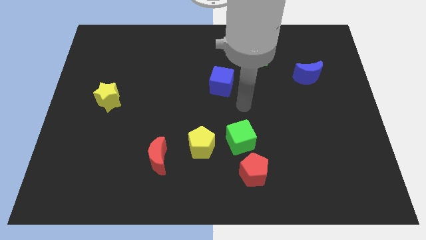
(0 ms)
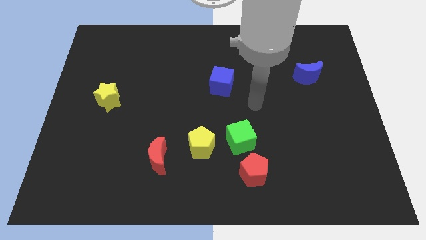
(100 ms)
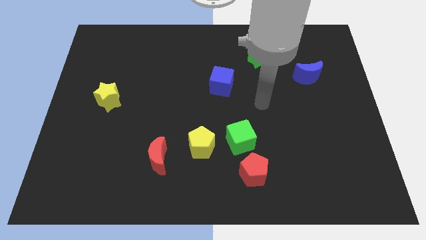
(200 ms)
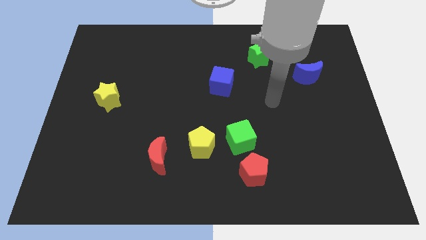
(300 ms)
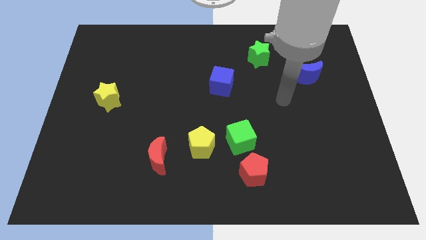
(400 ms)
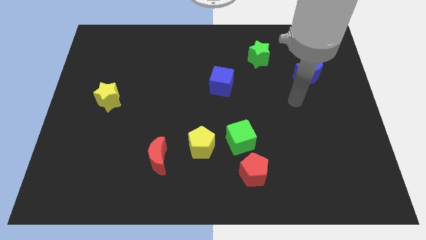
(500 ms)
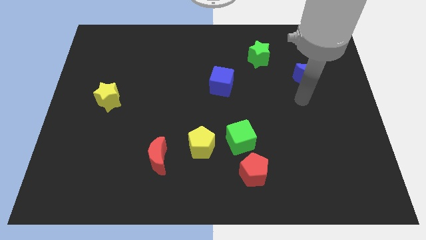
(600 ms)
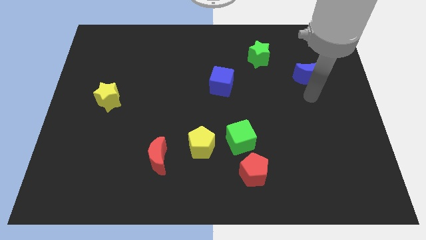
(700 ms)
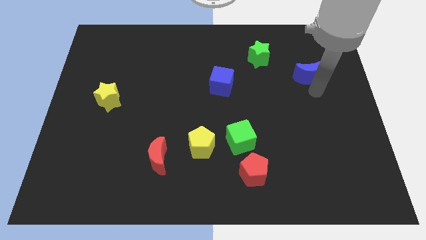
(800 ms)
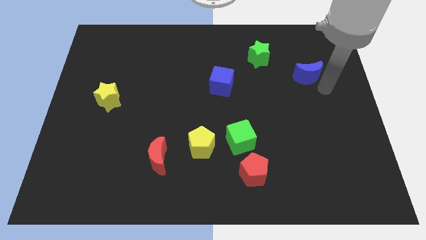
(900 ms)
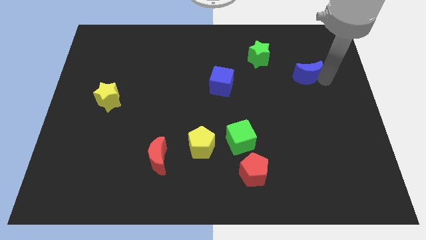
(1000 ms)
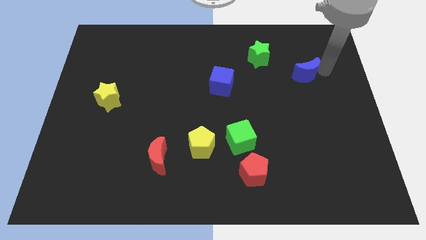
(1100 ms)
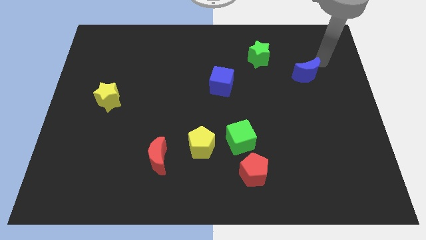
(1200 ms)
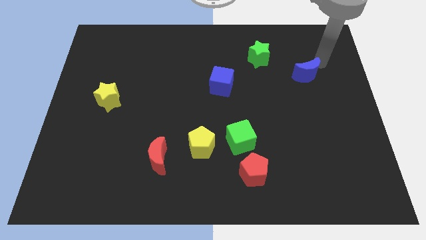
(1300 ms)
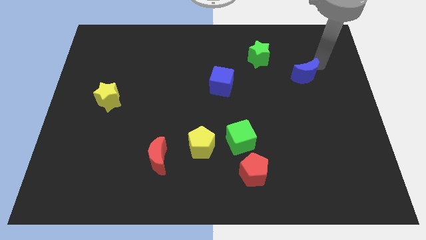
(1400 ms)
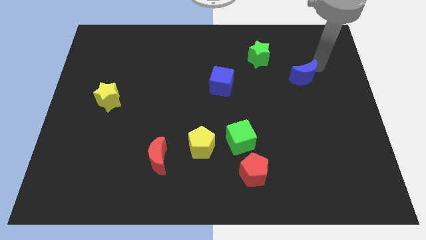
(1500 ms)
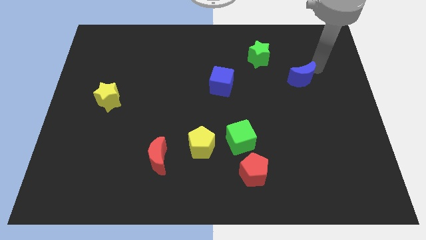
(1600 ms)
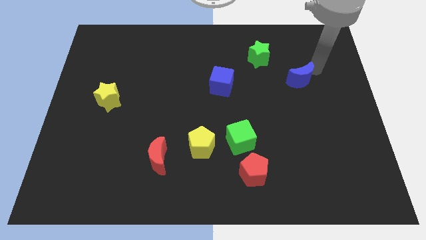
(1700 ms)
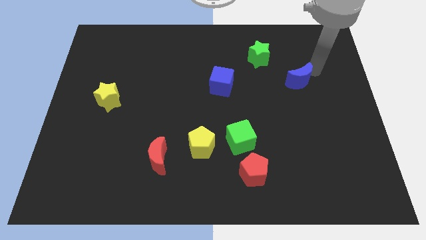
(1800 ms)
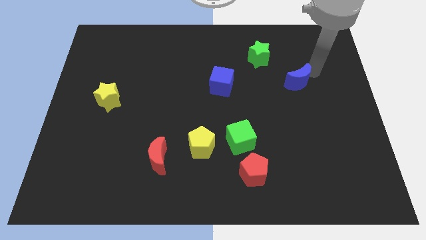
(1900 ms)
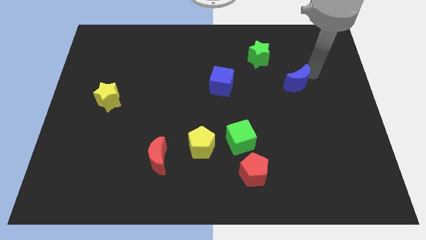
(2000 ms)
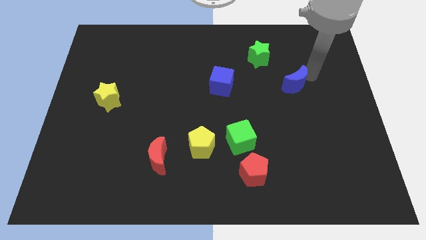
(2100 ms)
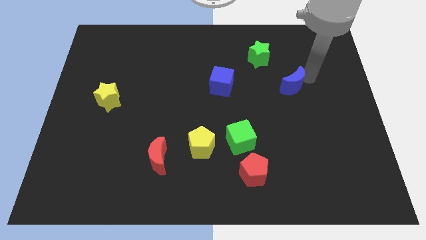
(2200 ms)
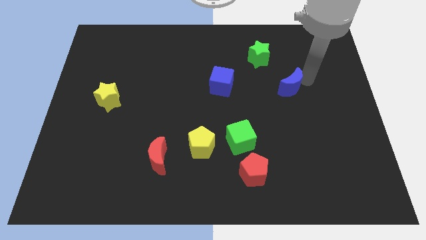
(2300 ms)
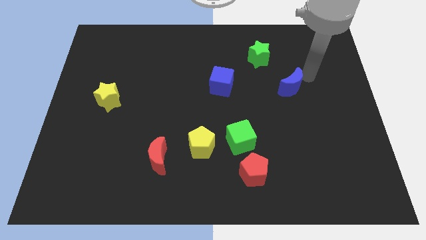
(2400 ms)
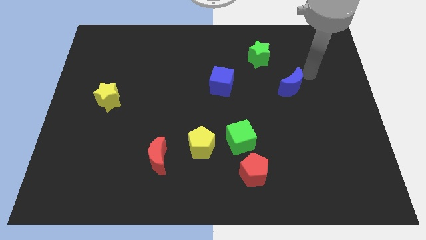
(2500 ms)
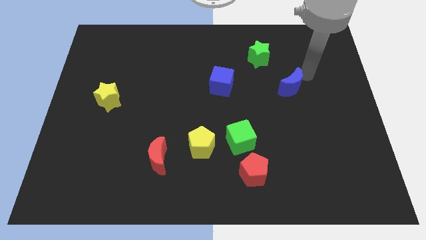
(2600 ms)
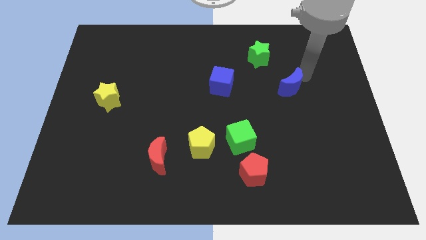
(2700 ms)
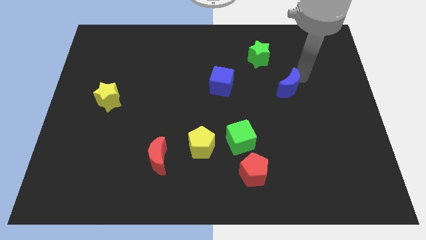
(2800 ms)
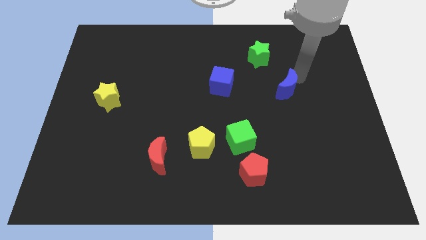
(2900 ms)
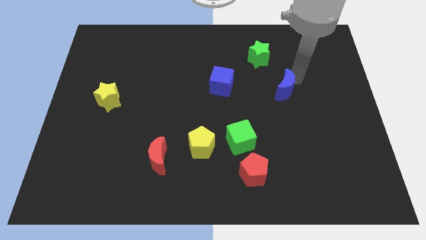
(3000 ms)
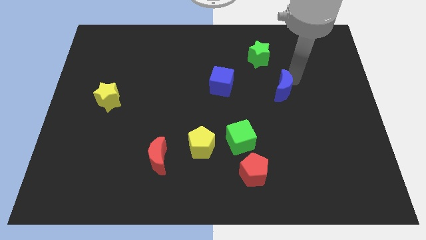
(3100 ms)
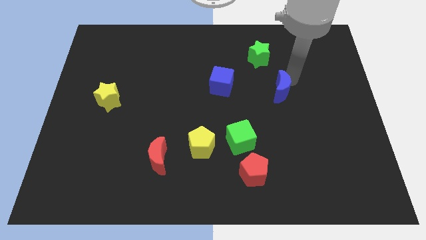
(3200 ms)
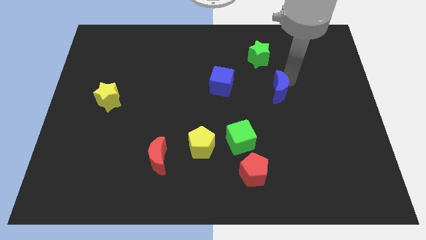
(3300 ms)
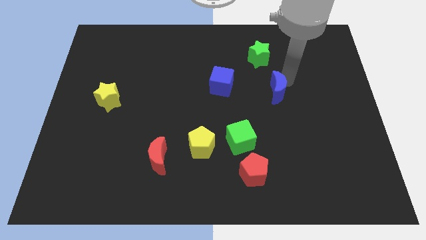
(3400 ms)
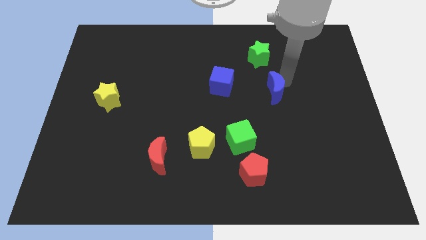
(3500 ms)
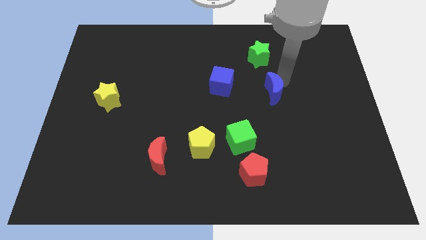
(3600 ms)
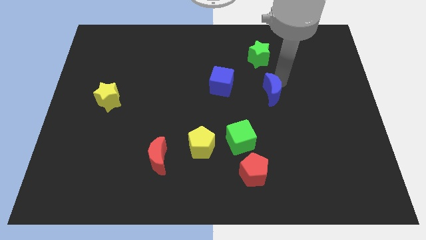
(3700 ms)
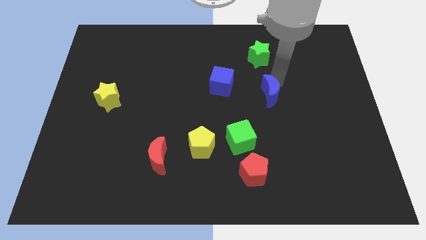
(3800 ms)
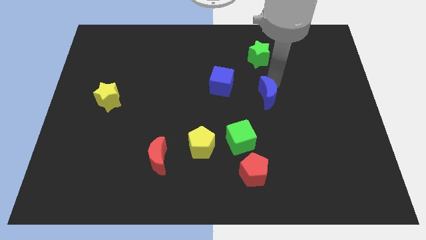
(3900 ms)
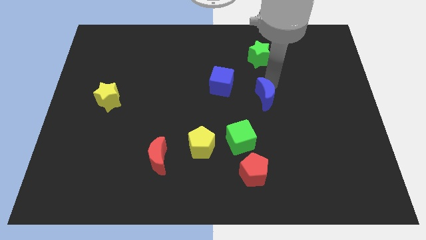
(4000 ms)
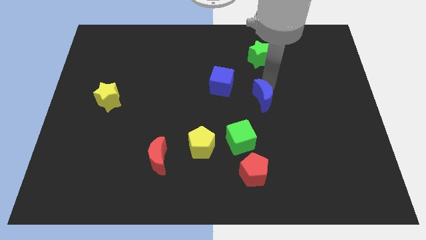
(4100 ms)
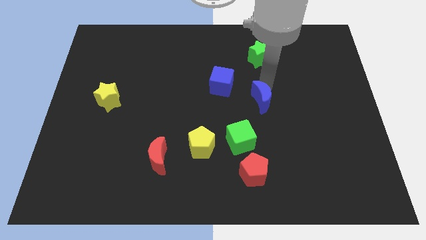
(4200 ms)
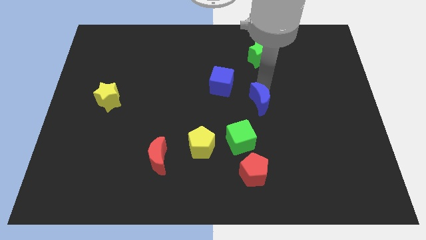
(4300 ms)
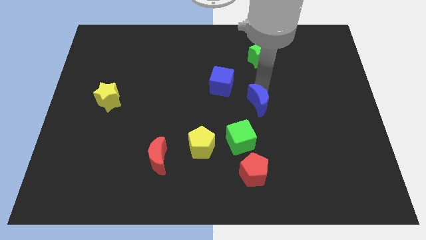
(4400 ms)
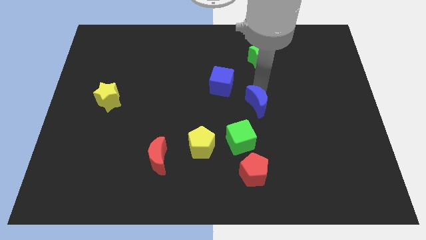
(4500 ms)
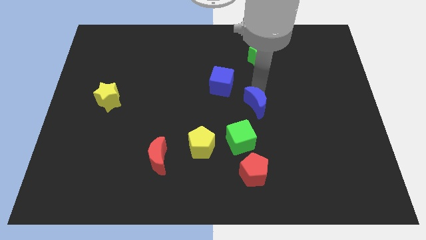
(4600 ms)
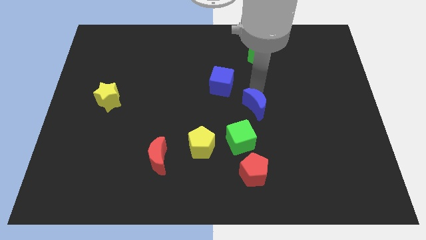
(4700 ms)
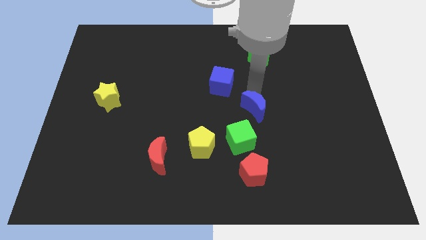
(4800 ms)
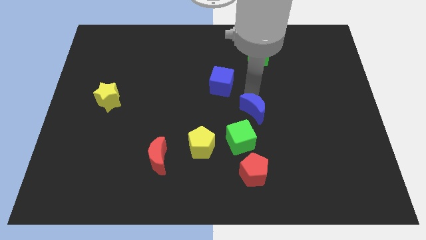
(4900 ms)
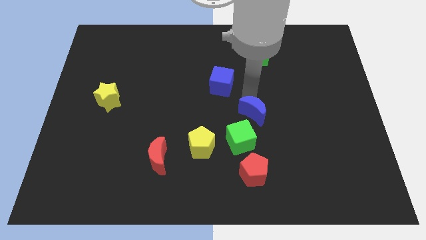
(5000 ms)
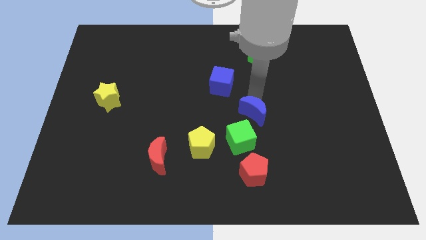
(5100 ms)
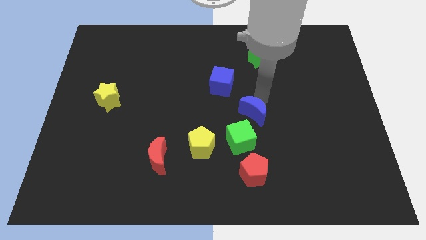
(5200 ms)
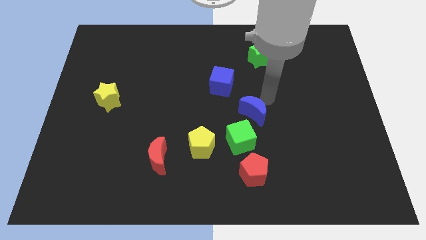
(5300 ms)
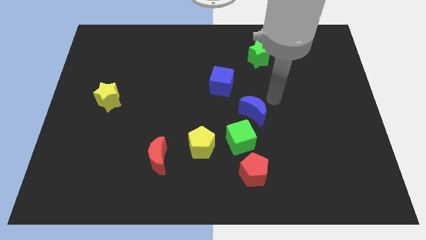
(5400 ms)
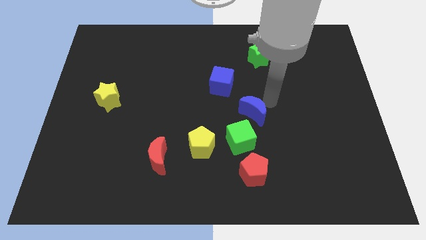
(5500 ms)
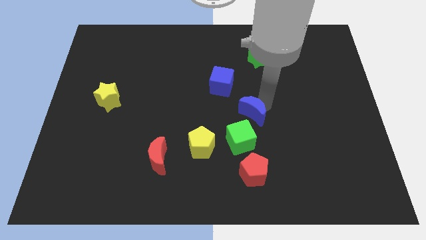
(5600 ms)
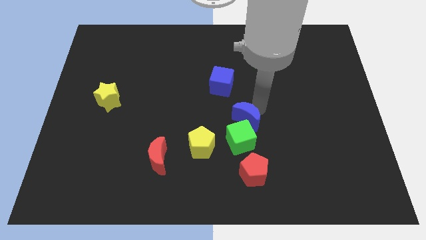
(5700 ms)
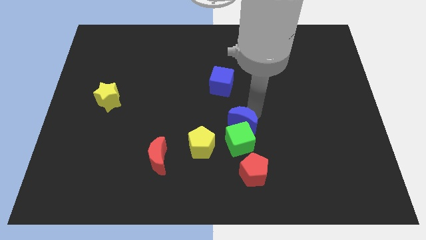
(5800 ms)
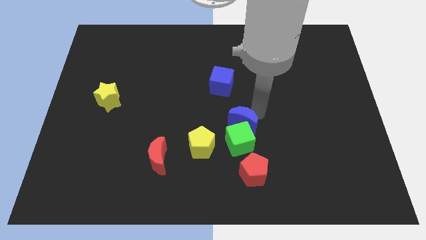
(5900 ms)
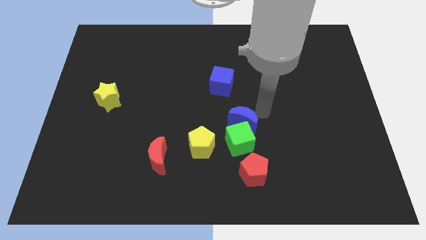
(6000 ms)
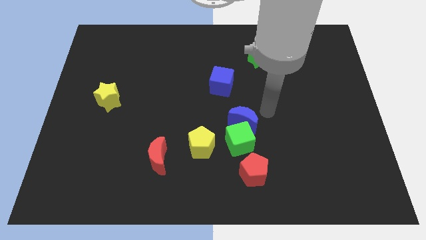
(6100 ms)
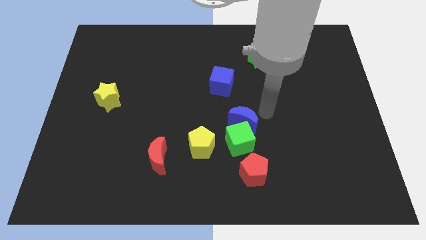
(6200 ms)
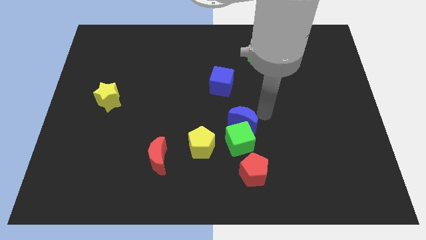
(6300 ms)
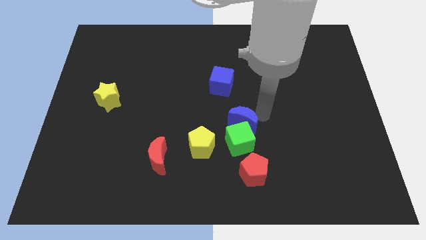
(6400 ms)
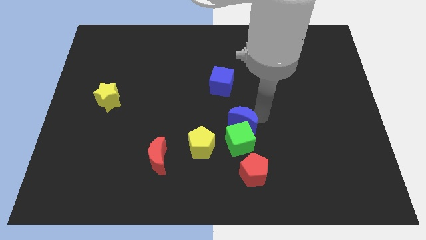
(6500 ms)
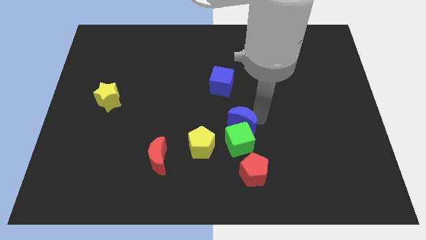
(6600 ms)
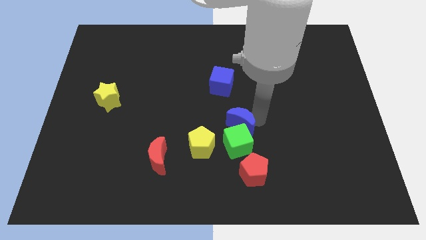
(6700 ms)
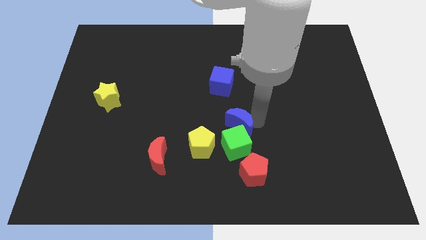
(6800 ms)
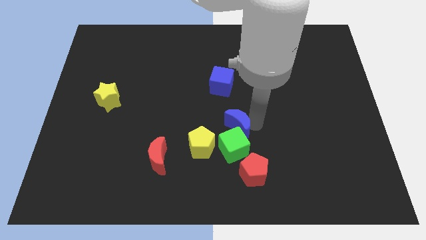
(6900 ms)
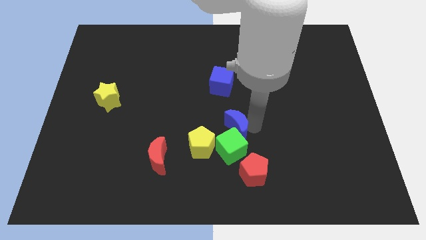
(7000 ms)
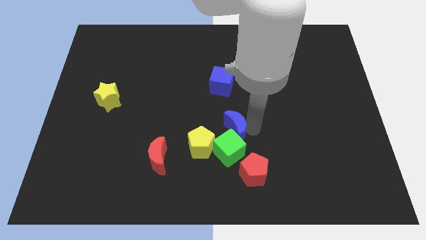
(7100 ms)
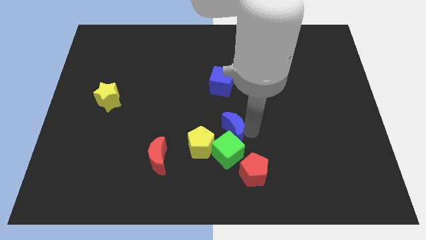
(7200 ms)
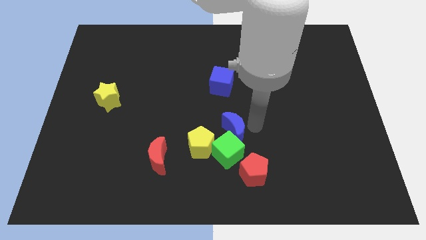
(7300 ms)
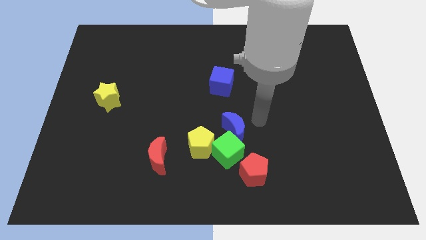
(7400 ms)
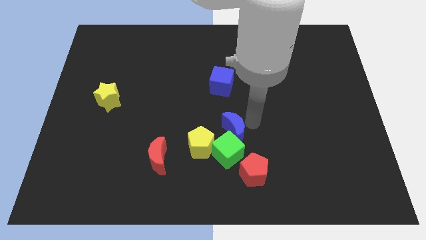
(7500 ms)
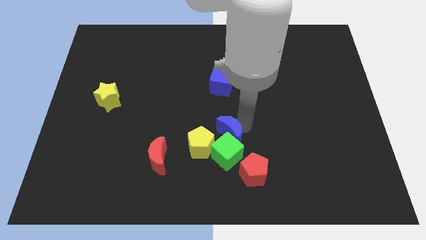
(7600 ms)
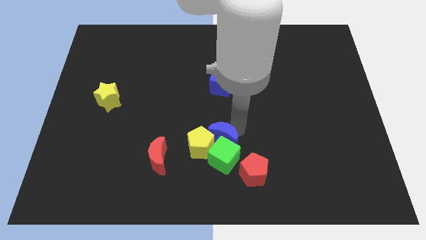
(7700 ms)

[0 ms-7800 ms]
put the blue moon to the yellow pentagon

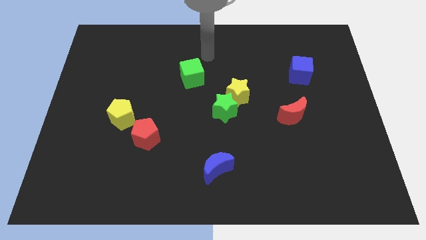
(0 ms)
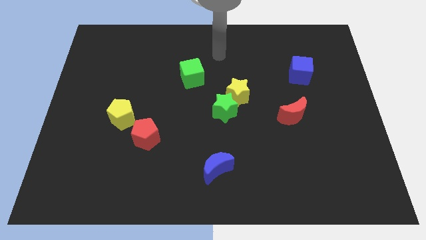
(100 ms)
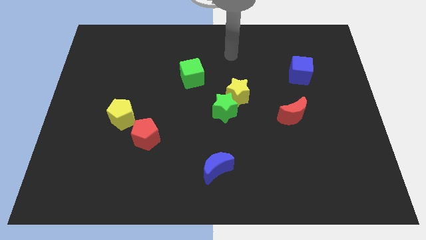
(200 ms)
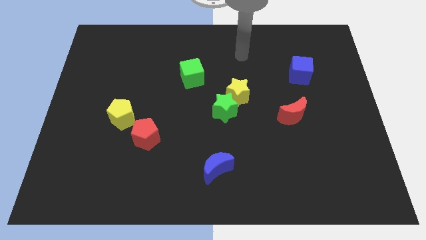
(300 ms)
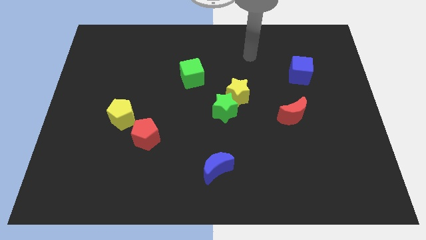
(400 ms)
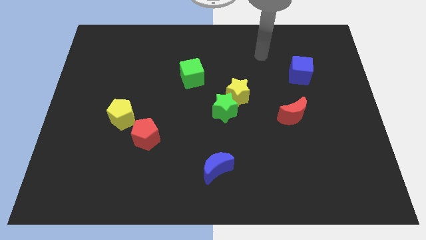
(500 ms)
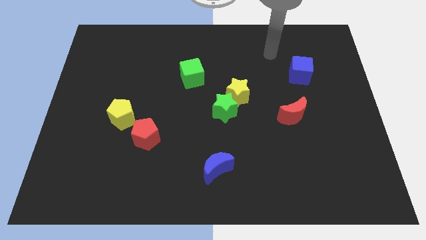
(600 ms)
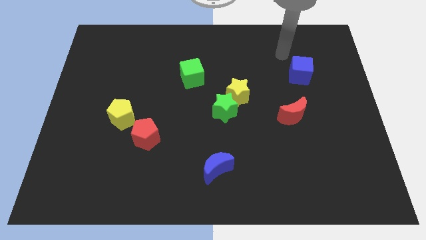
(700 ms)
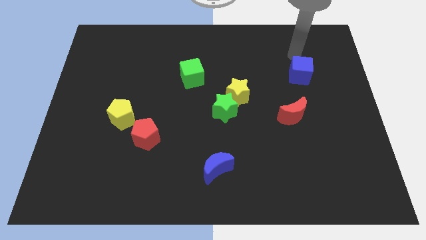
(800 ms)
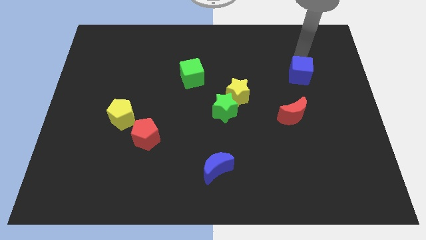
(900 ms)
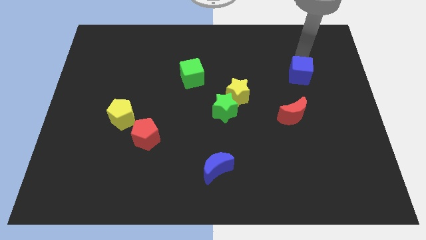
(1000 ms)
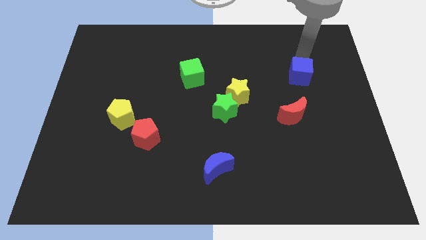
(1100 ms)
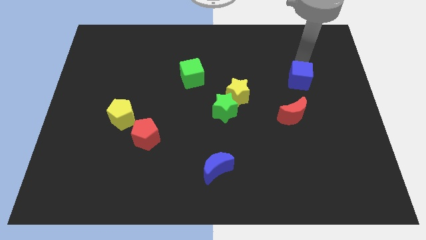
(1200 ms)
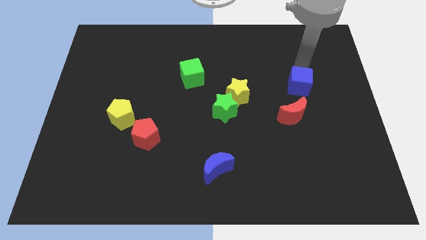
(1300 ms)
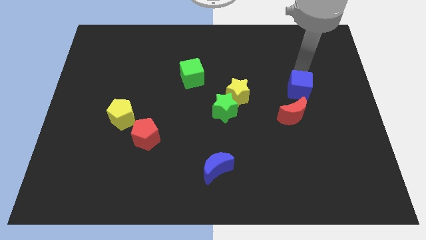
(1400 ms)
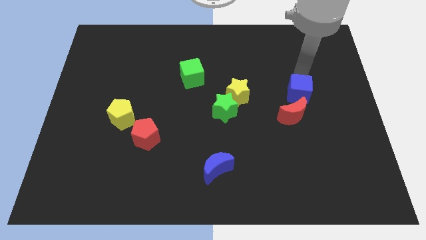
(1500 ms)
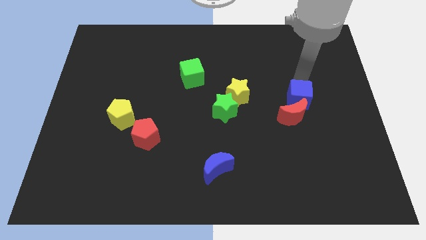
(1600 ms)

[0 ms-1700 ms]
move the blue cube towards the red moon
